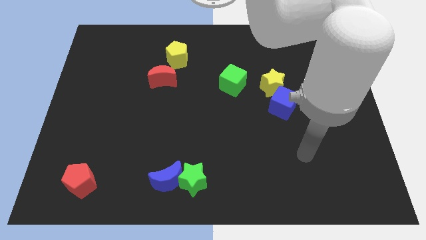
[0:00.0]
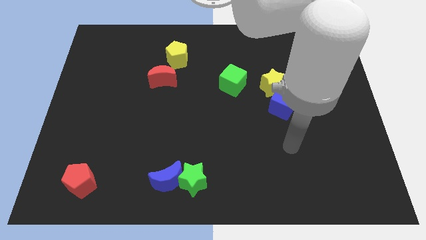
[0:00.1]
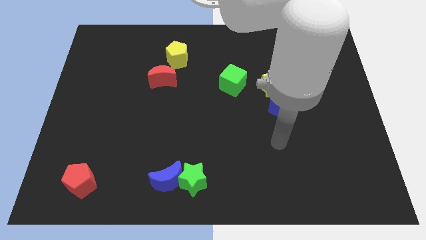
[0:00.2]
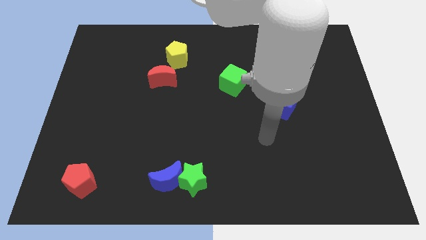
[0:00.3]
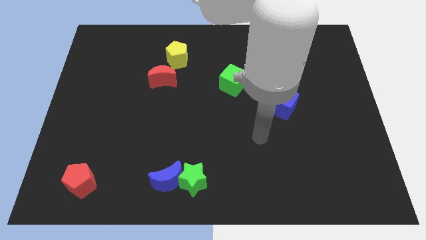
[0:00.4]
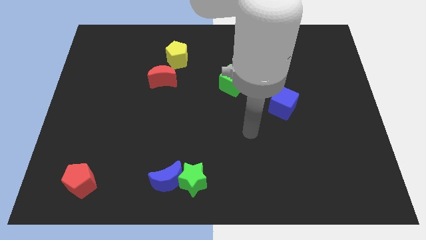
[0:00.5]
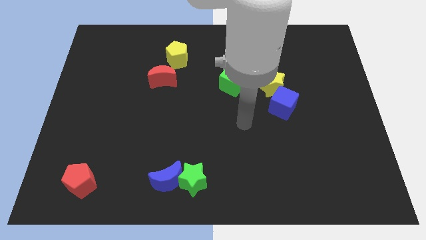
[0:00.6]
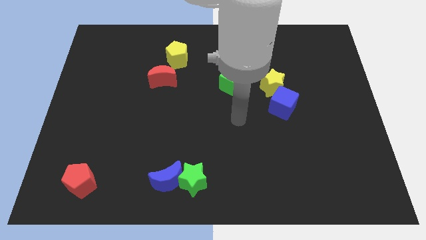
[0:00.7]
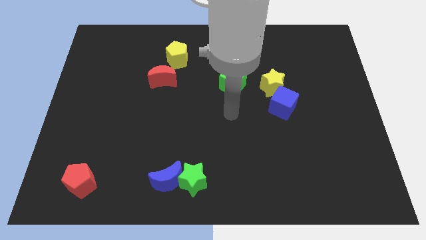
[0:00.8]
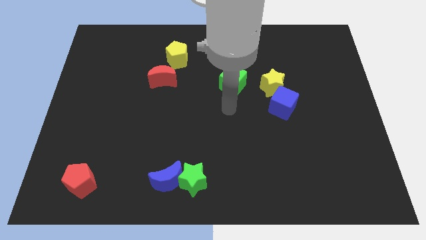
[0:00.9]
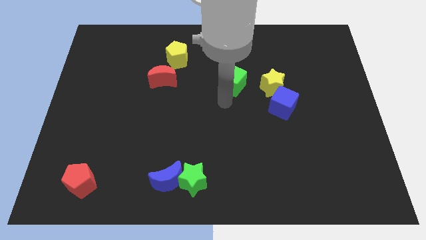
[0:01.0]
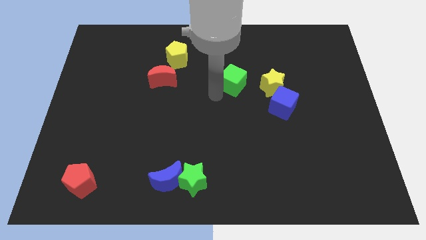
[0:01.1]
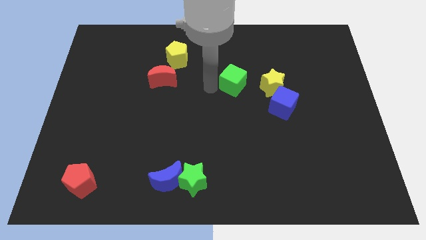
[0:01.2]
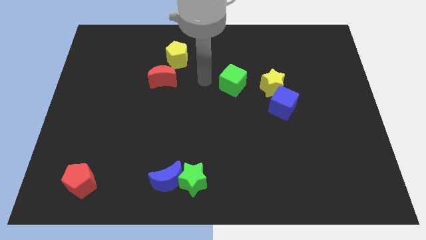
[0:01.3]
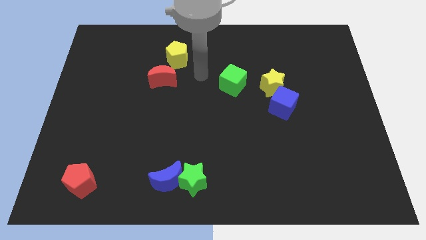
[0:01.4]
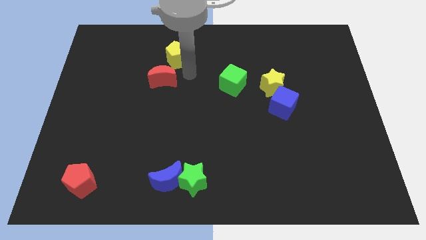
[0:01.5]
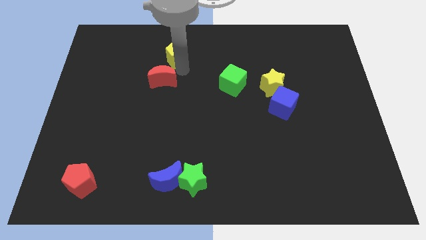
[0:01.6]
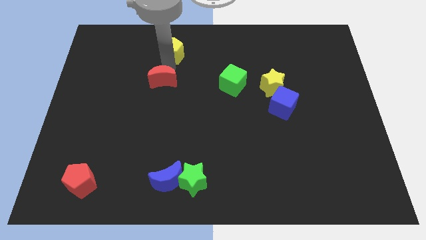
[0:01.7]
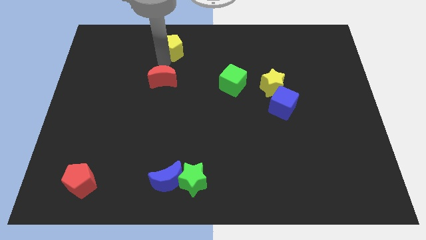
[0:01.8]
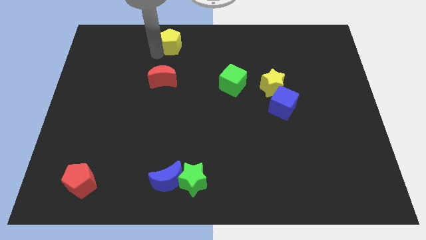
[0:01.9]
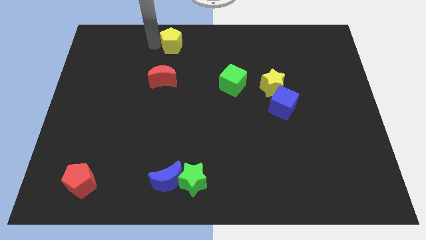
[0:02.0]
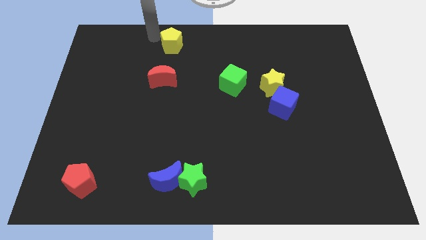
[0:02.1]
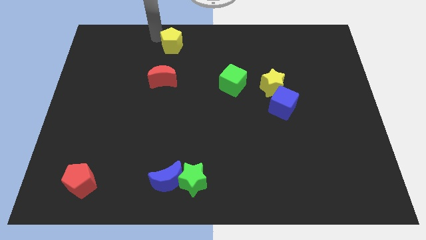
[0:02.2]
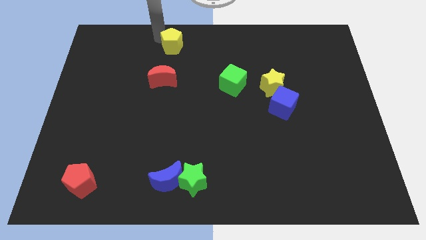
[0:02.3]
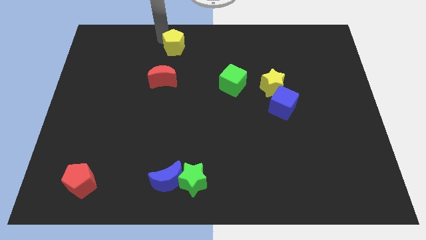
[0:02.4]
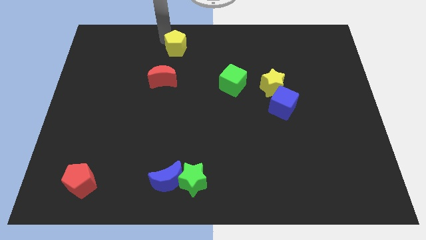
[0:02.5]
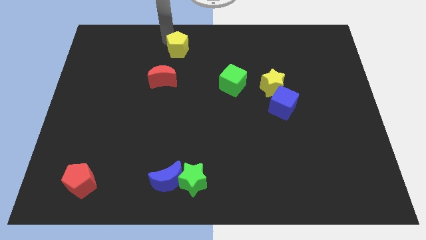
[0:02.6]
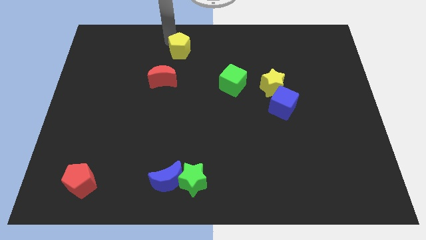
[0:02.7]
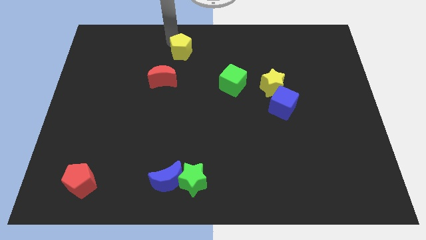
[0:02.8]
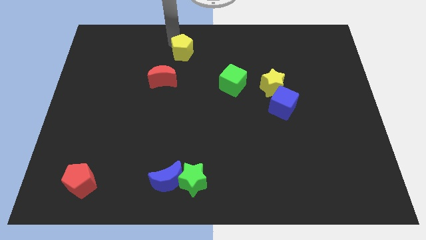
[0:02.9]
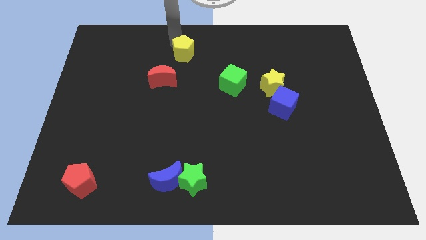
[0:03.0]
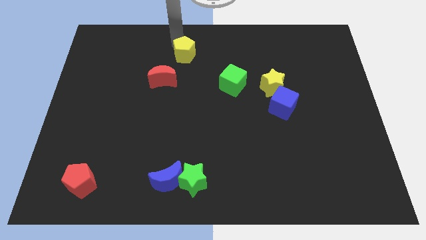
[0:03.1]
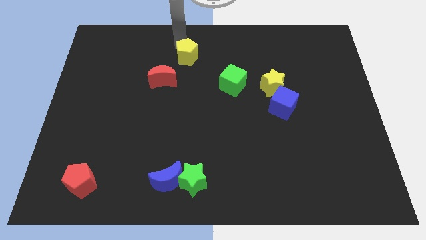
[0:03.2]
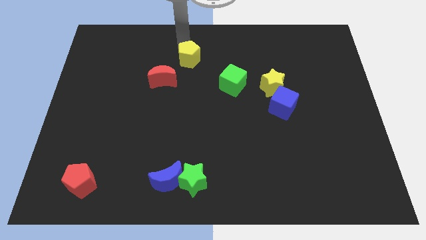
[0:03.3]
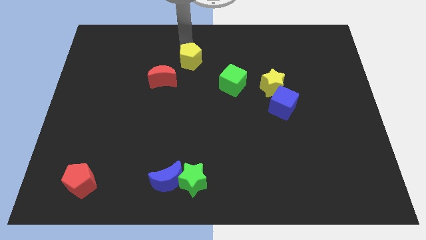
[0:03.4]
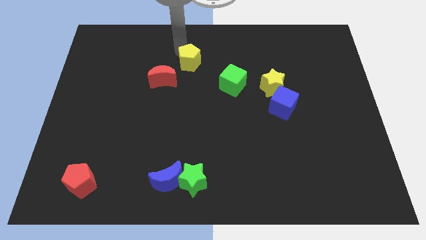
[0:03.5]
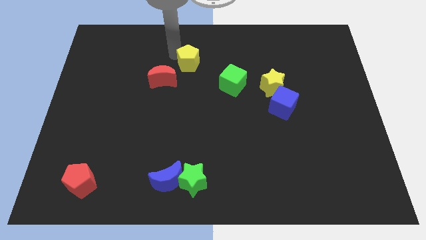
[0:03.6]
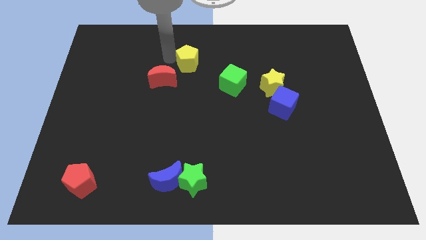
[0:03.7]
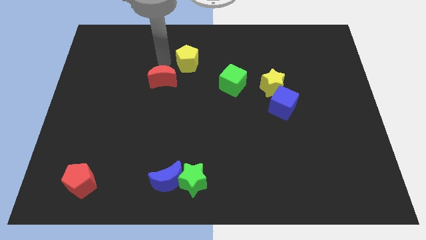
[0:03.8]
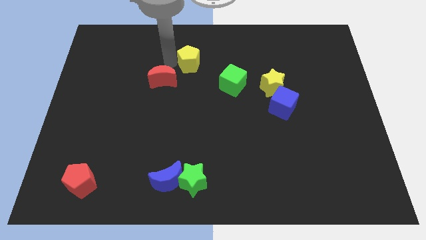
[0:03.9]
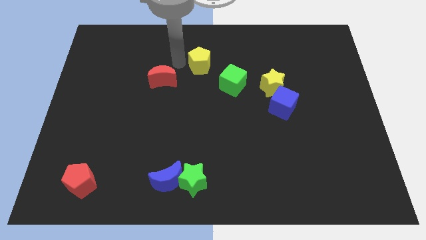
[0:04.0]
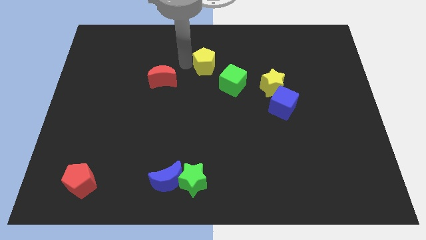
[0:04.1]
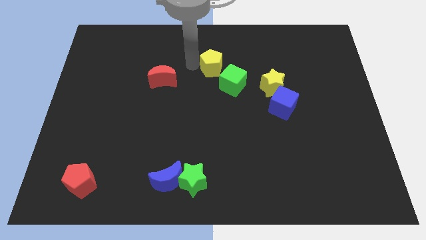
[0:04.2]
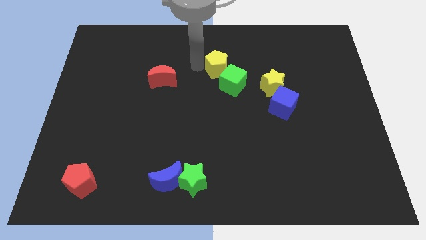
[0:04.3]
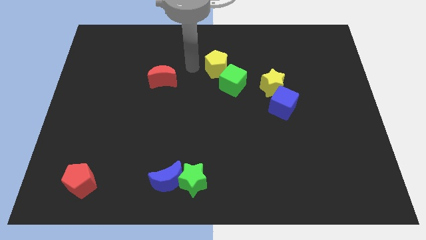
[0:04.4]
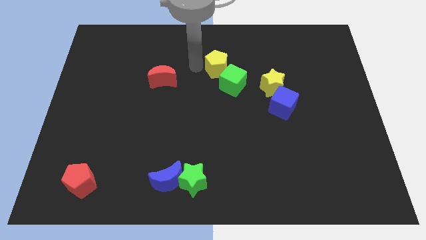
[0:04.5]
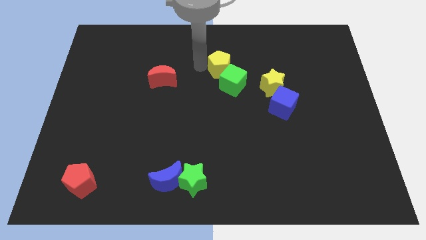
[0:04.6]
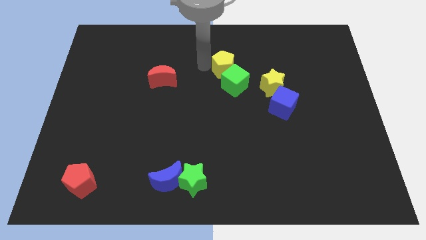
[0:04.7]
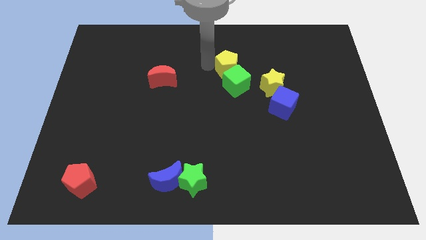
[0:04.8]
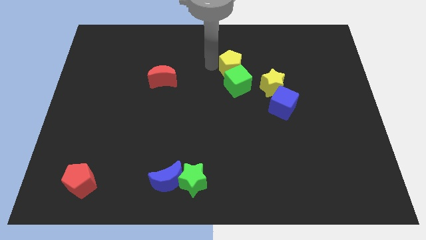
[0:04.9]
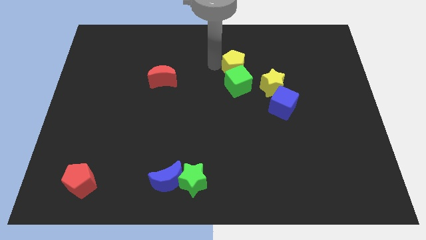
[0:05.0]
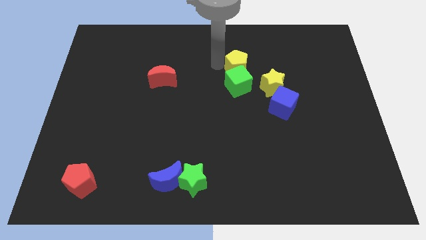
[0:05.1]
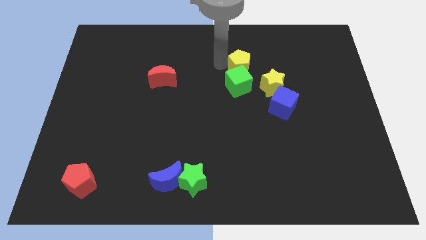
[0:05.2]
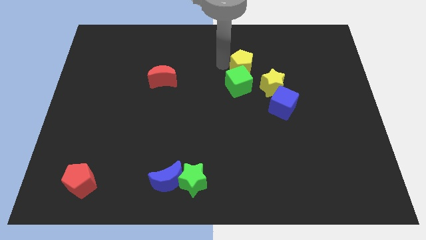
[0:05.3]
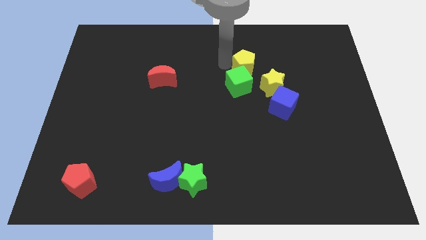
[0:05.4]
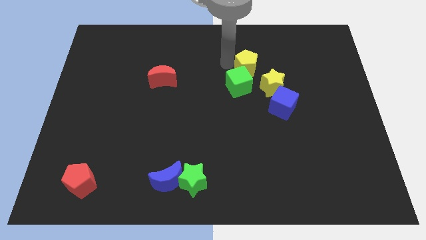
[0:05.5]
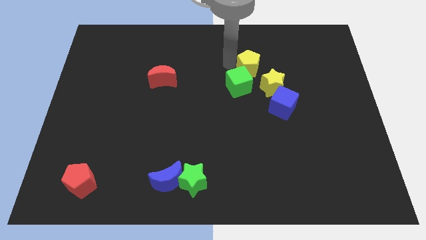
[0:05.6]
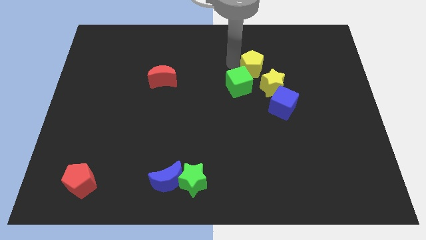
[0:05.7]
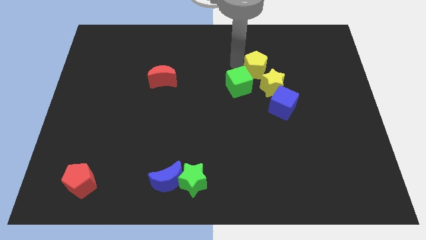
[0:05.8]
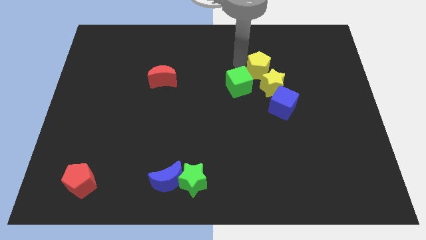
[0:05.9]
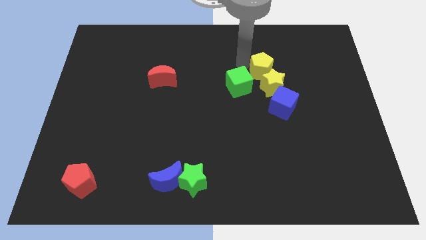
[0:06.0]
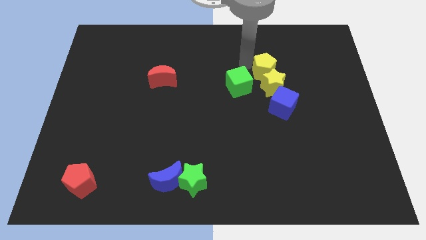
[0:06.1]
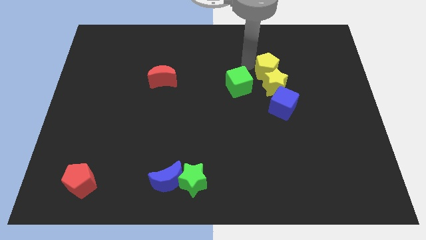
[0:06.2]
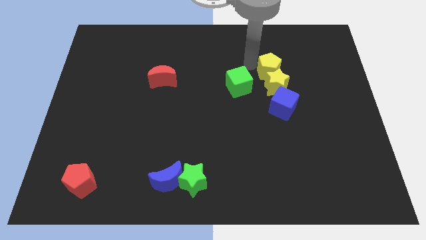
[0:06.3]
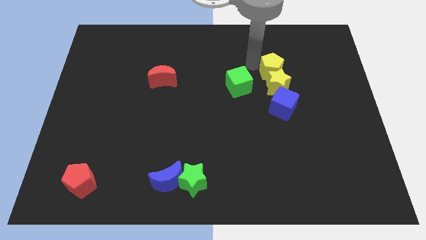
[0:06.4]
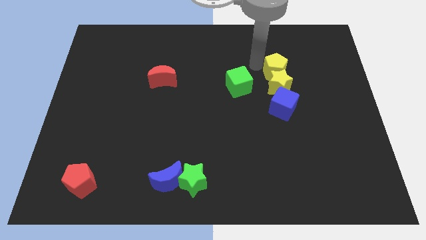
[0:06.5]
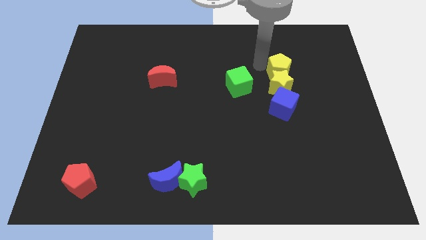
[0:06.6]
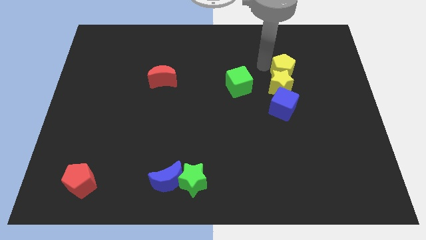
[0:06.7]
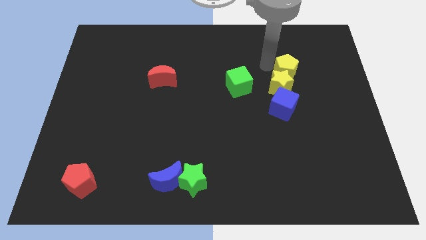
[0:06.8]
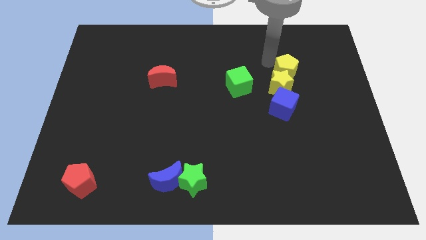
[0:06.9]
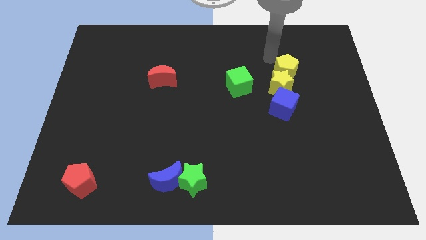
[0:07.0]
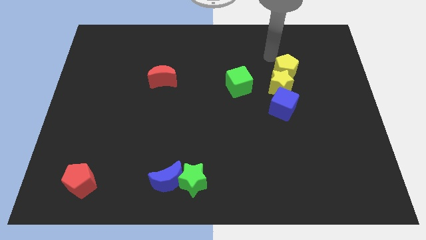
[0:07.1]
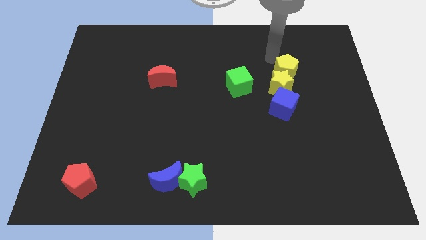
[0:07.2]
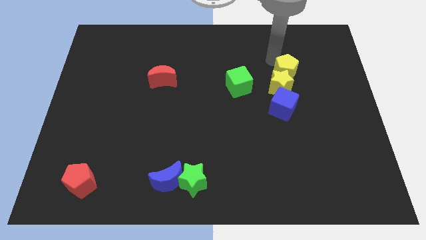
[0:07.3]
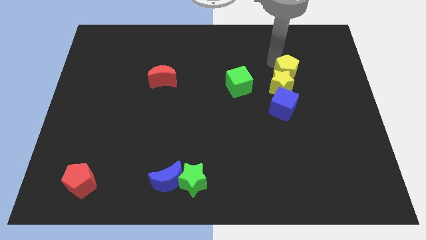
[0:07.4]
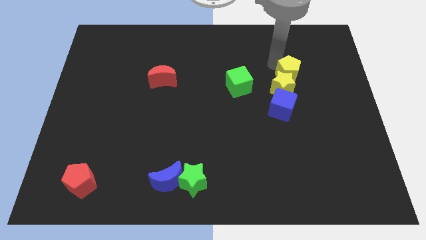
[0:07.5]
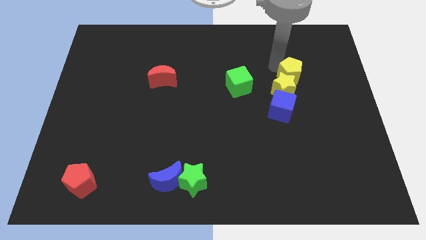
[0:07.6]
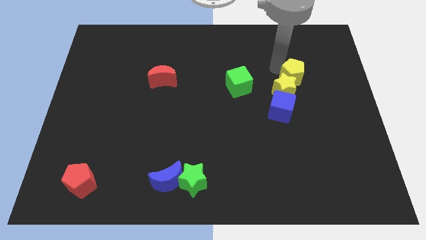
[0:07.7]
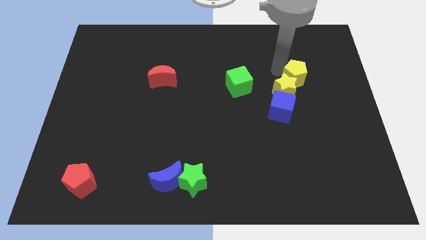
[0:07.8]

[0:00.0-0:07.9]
slide the yellow pentagon diagonally up and to the right of the blue cube
